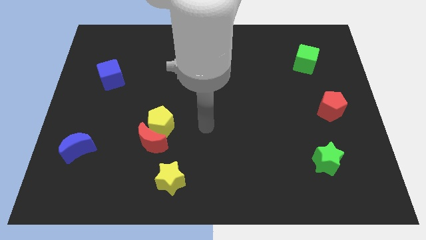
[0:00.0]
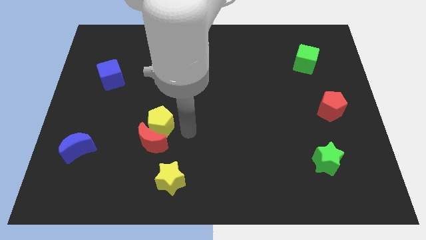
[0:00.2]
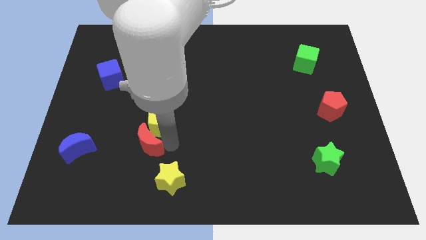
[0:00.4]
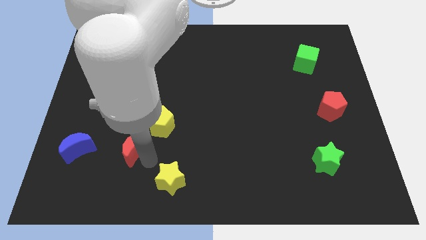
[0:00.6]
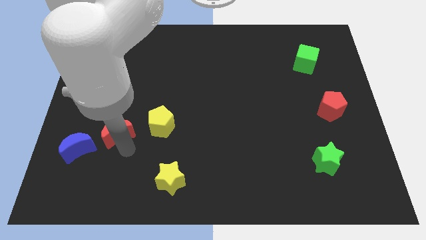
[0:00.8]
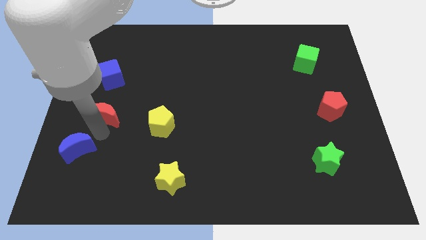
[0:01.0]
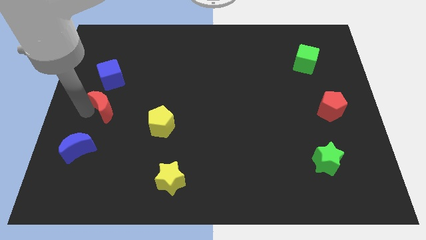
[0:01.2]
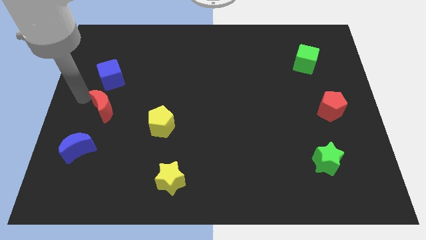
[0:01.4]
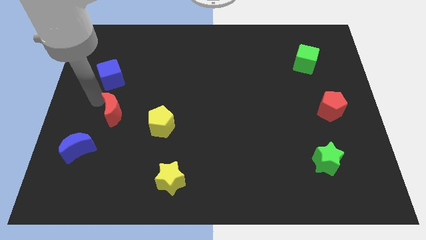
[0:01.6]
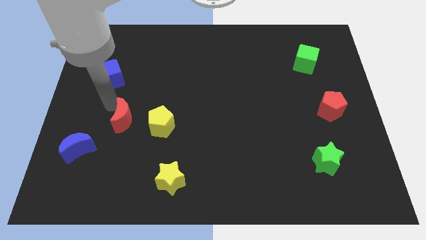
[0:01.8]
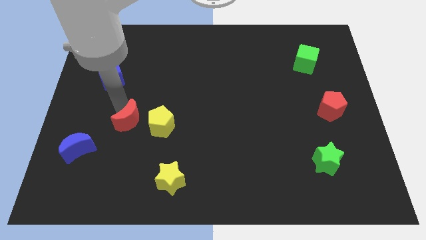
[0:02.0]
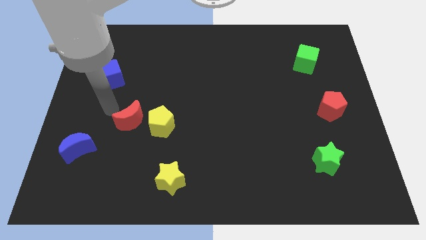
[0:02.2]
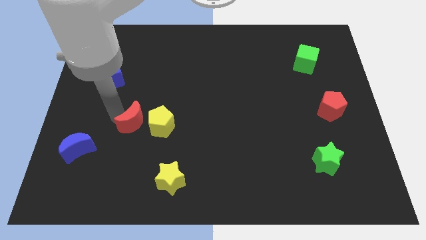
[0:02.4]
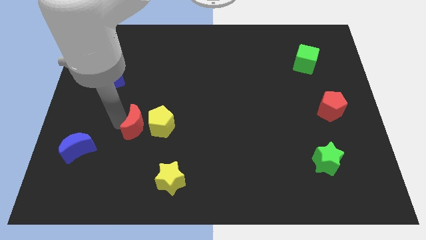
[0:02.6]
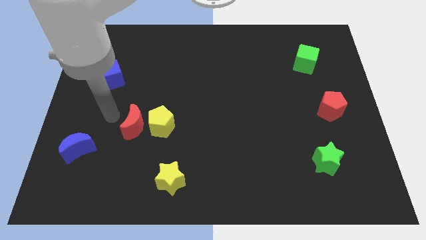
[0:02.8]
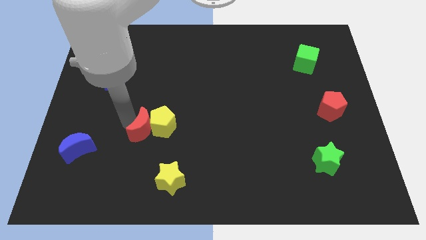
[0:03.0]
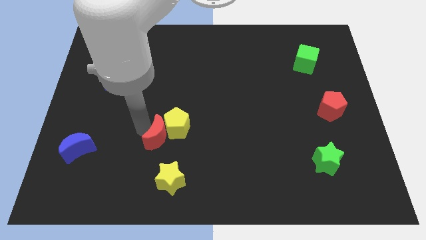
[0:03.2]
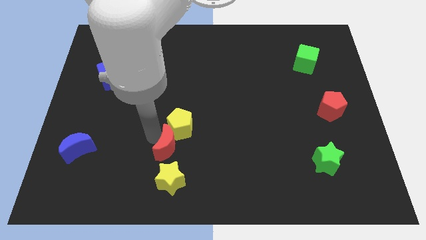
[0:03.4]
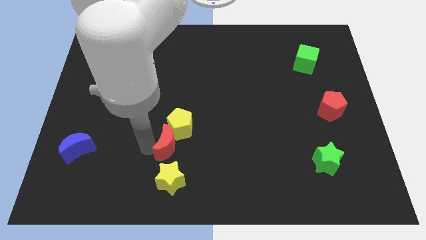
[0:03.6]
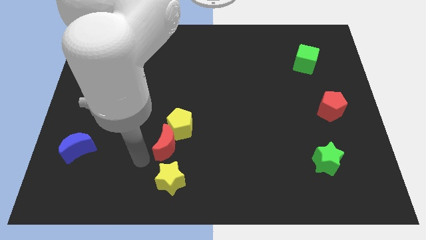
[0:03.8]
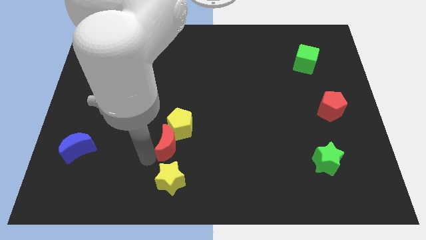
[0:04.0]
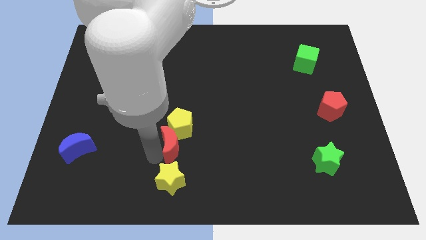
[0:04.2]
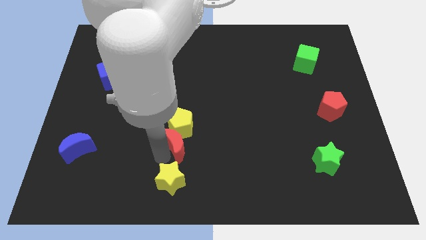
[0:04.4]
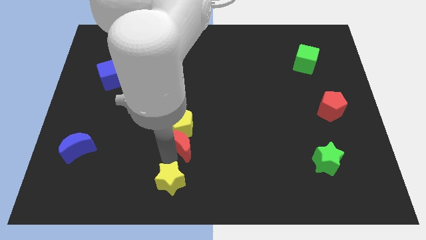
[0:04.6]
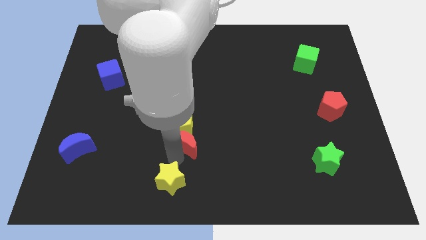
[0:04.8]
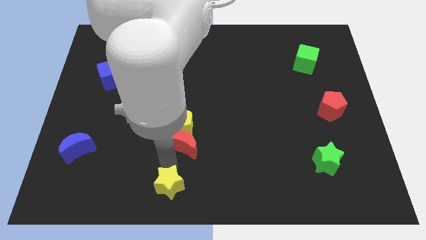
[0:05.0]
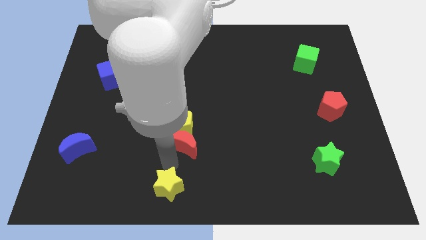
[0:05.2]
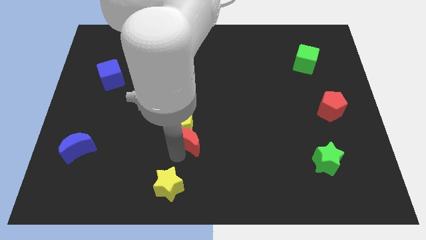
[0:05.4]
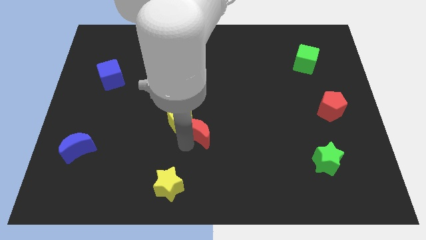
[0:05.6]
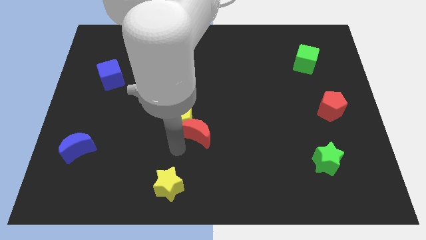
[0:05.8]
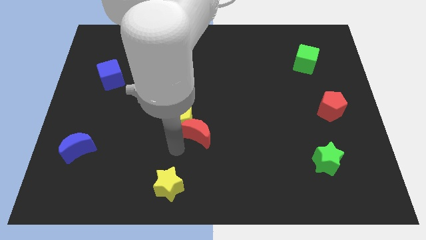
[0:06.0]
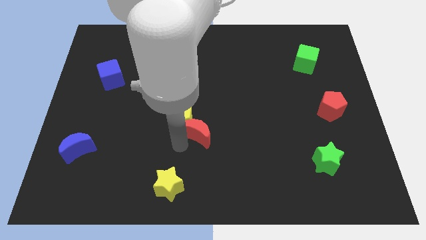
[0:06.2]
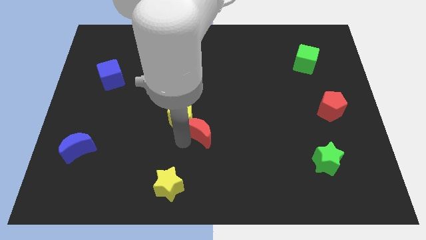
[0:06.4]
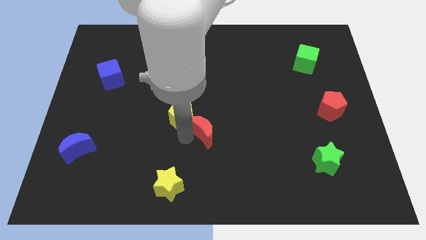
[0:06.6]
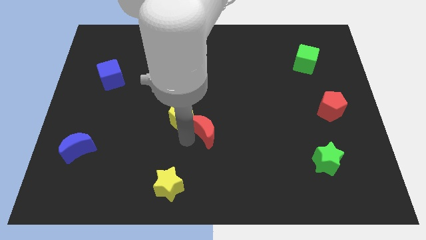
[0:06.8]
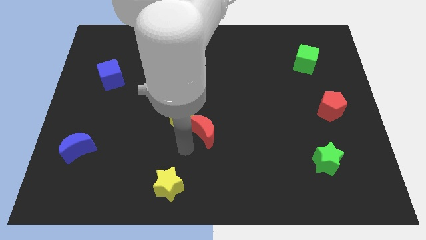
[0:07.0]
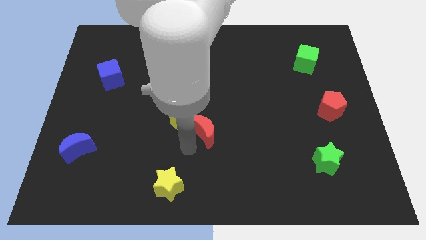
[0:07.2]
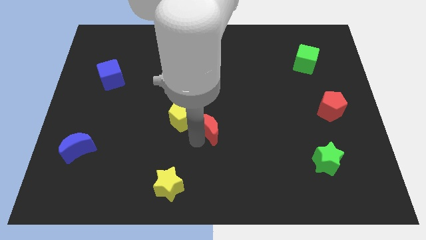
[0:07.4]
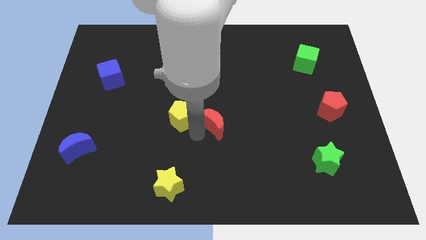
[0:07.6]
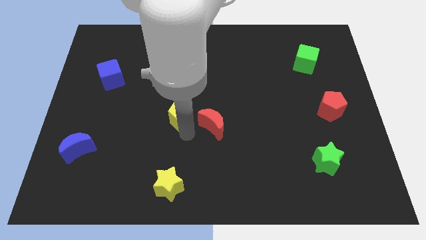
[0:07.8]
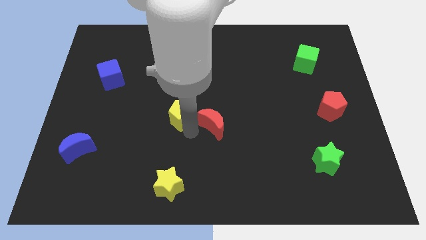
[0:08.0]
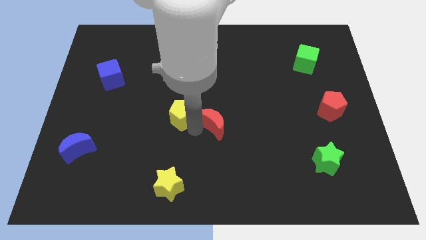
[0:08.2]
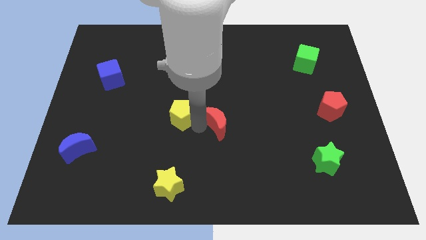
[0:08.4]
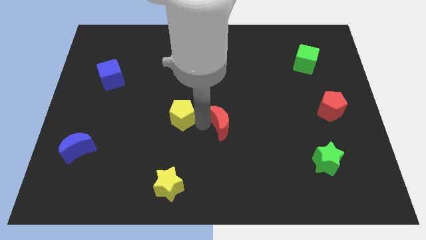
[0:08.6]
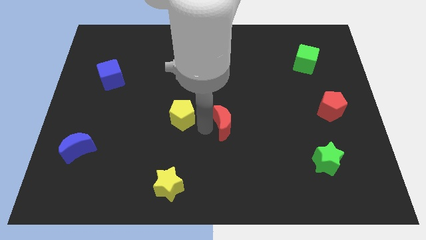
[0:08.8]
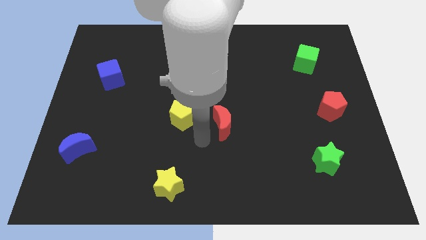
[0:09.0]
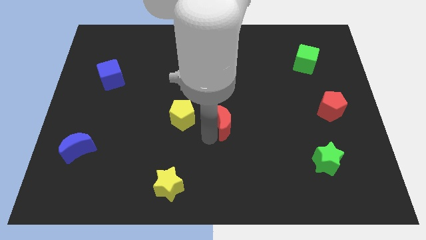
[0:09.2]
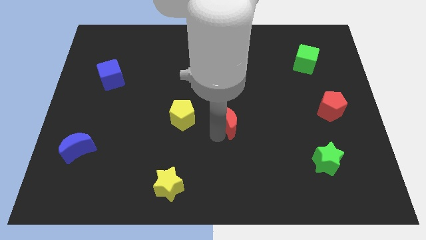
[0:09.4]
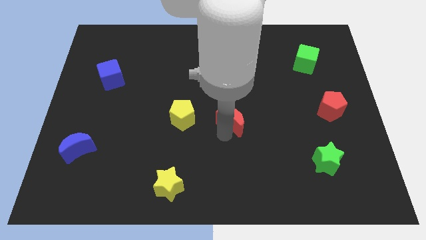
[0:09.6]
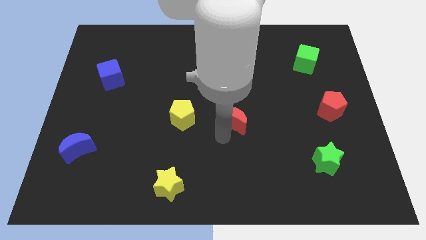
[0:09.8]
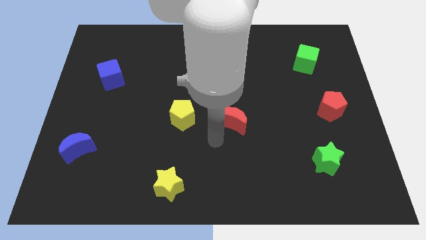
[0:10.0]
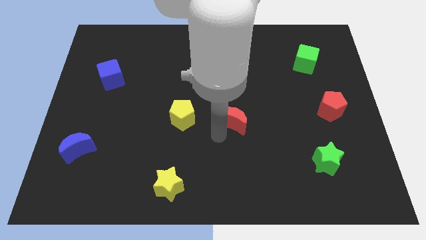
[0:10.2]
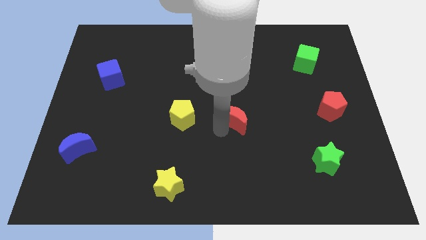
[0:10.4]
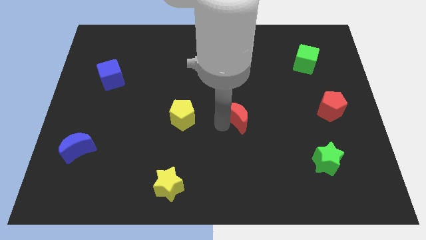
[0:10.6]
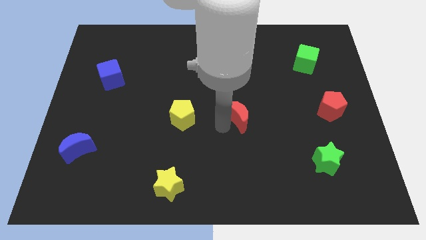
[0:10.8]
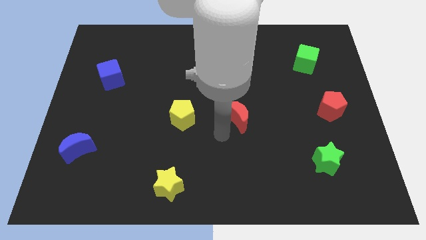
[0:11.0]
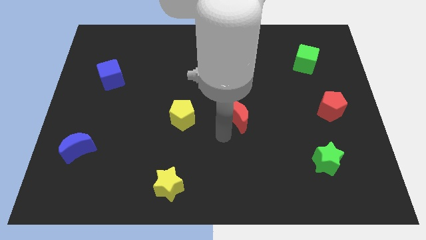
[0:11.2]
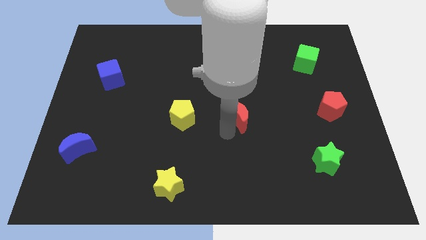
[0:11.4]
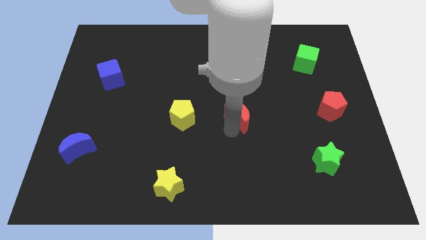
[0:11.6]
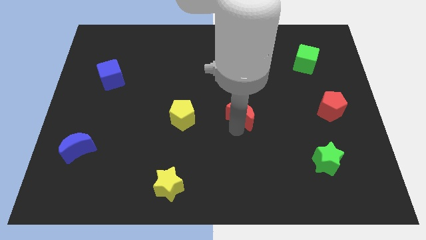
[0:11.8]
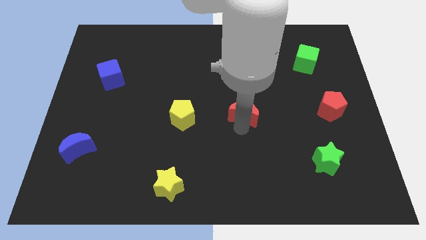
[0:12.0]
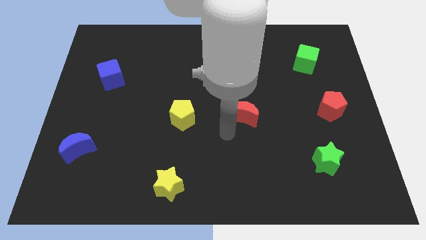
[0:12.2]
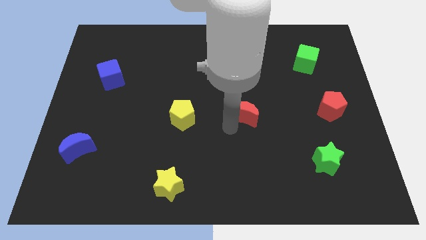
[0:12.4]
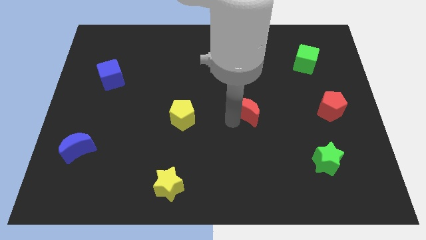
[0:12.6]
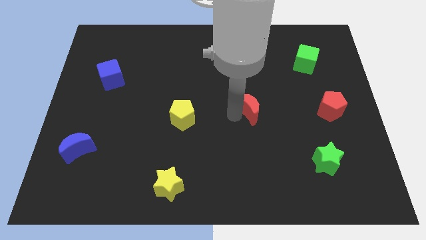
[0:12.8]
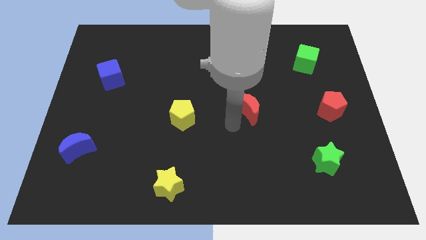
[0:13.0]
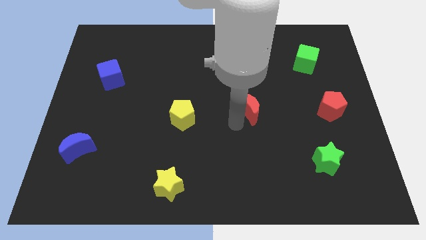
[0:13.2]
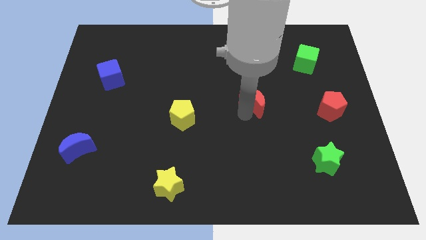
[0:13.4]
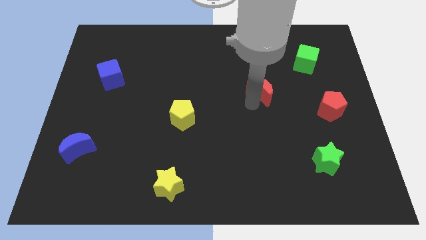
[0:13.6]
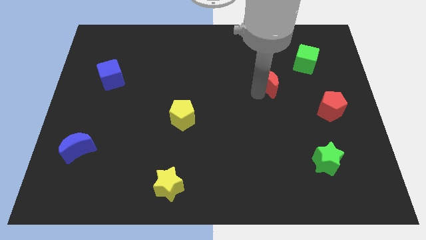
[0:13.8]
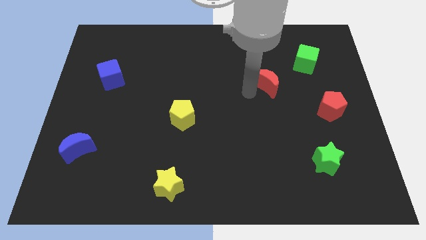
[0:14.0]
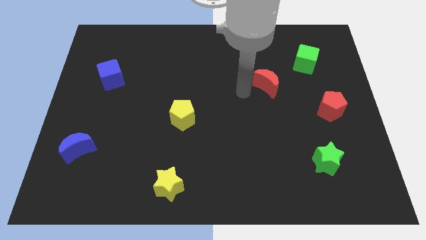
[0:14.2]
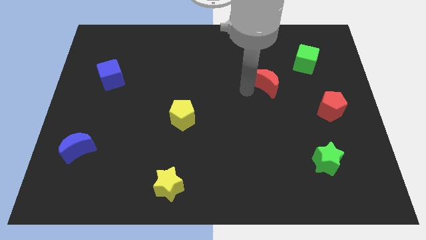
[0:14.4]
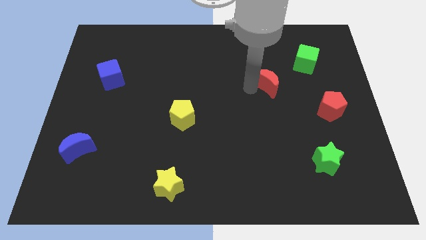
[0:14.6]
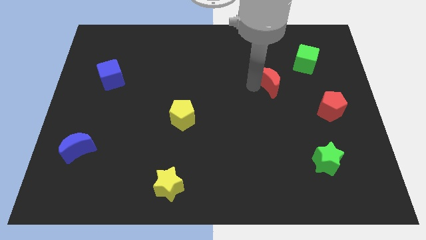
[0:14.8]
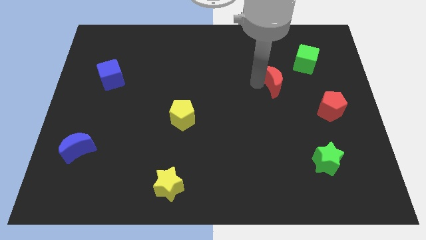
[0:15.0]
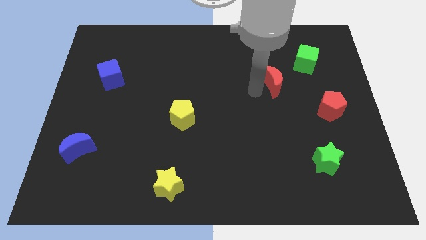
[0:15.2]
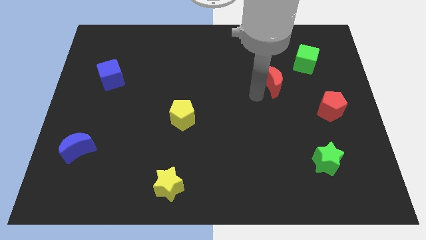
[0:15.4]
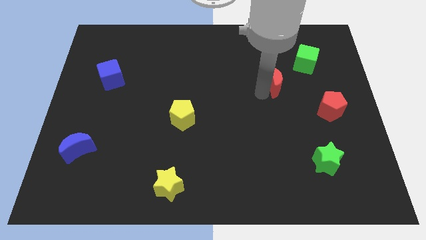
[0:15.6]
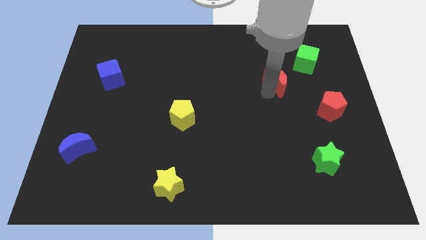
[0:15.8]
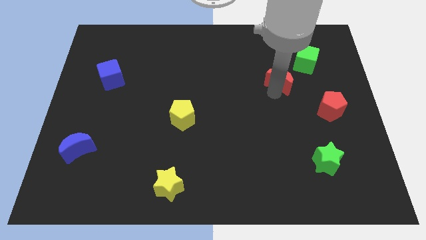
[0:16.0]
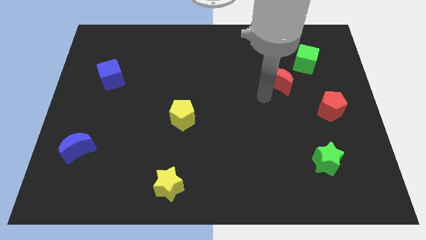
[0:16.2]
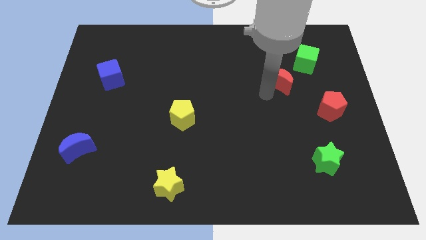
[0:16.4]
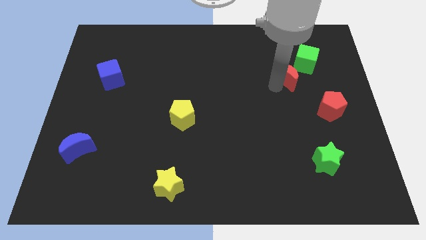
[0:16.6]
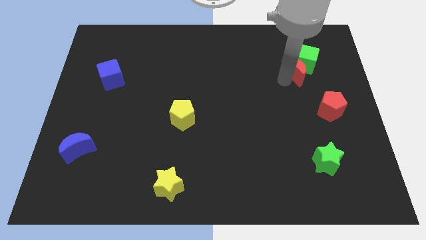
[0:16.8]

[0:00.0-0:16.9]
move the red moon close to the green cube
